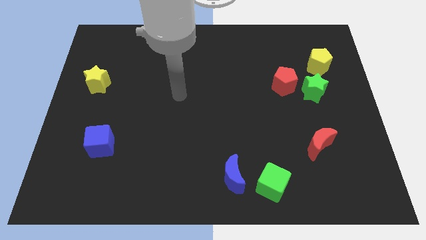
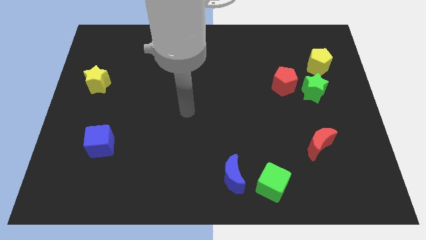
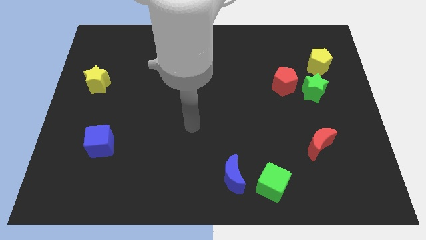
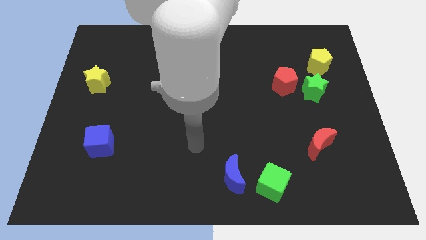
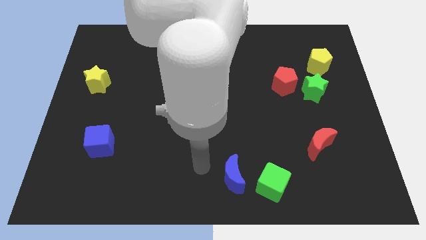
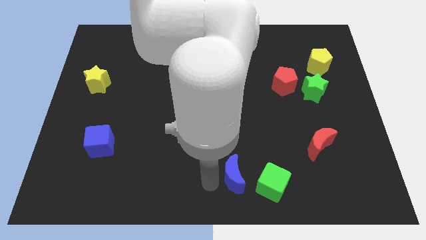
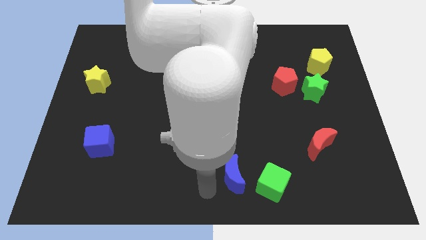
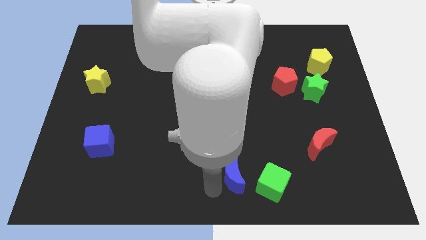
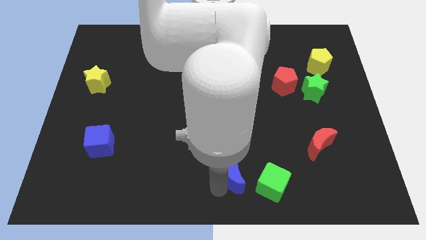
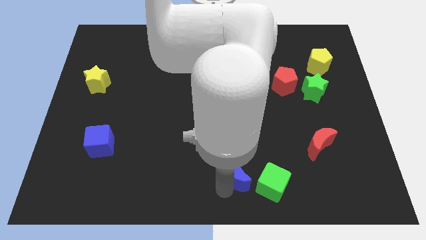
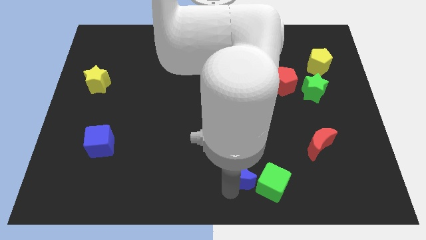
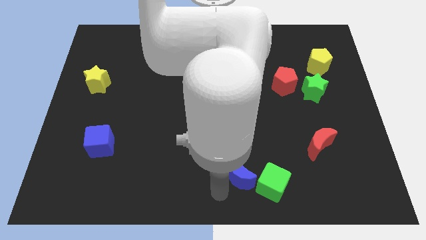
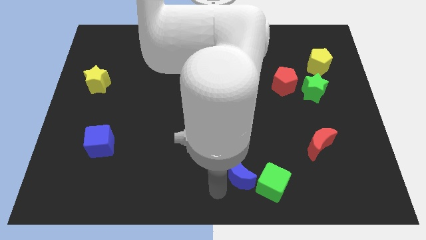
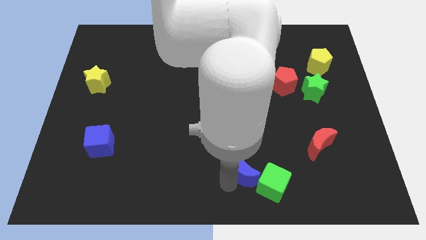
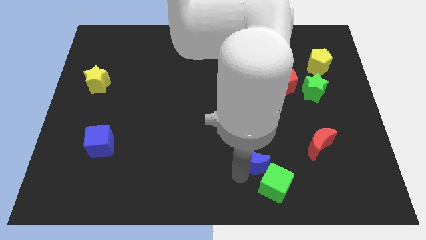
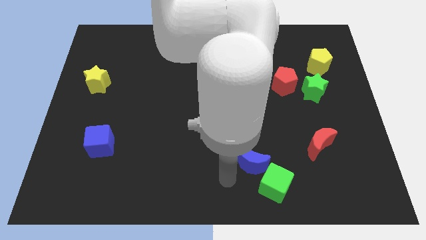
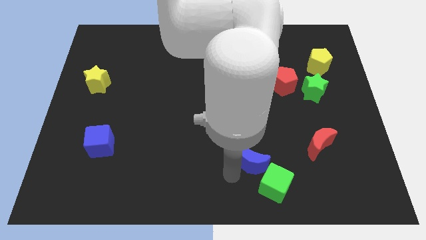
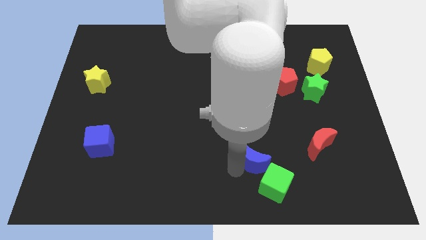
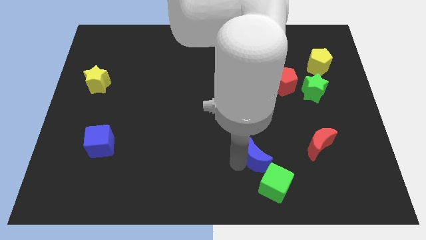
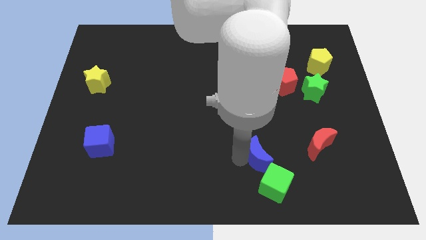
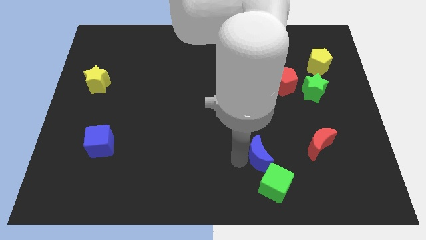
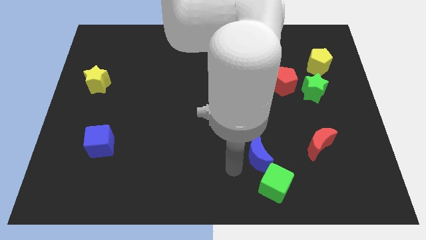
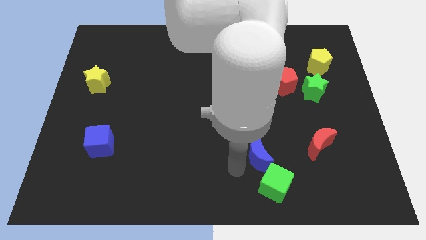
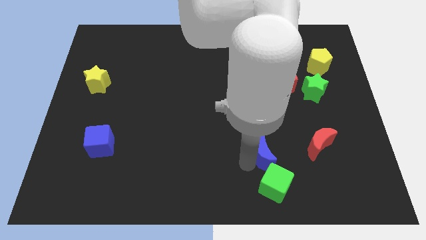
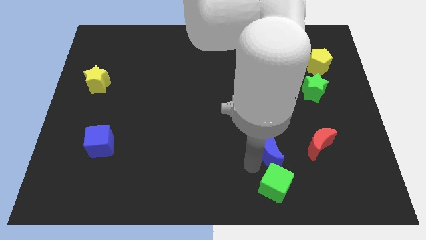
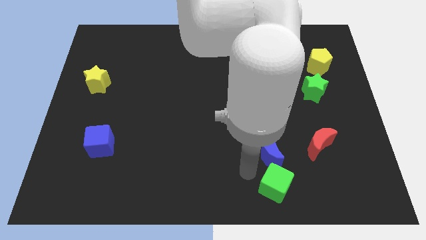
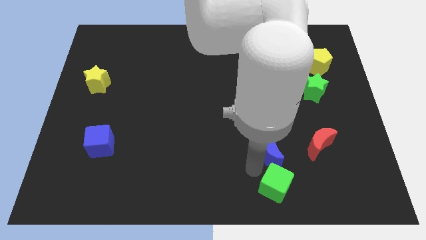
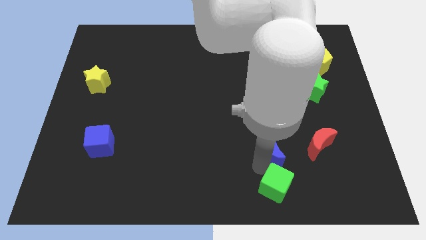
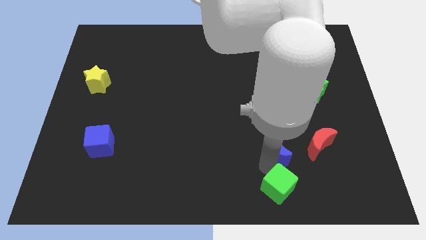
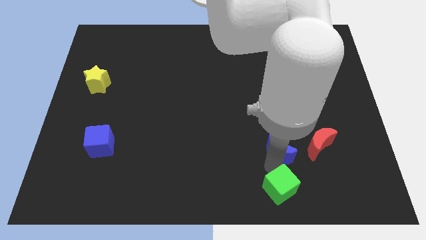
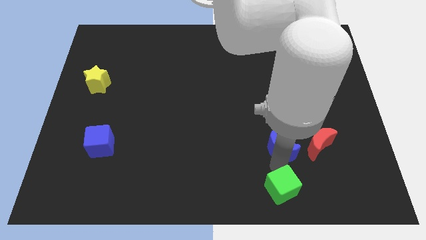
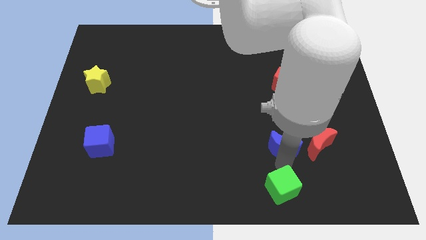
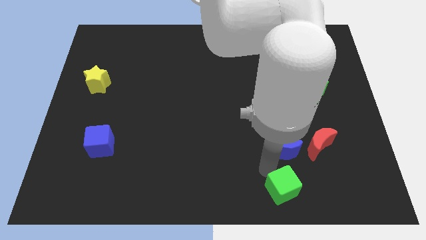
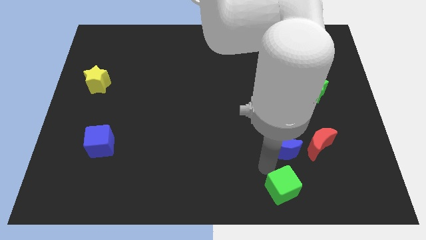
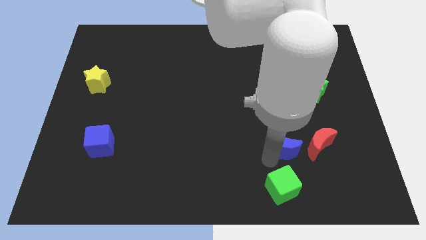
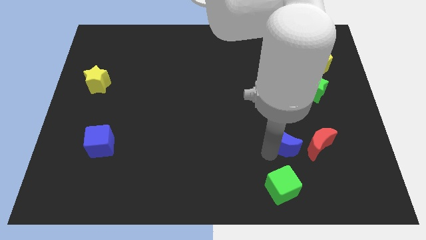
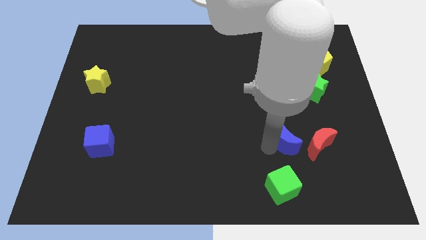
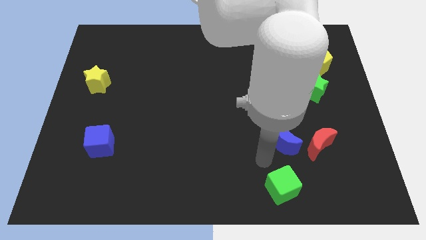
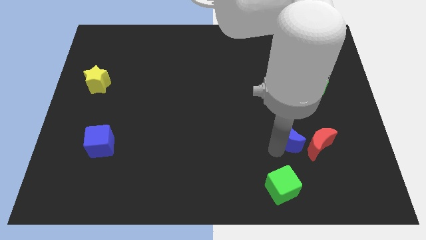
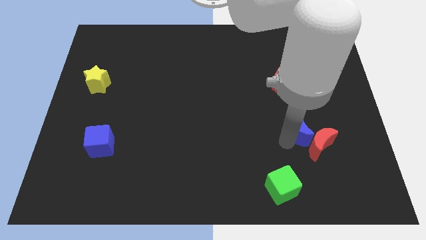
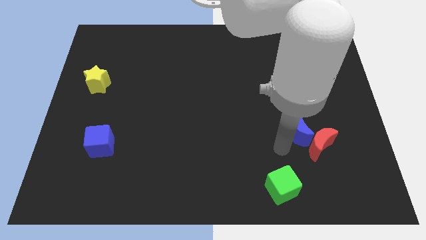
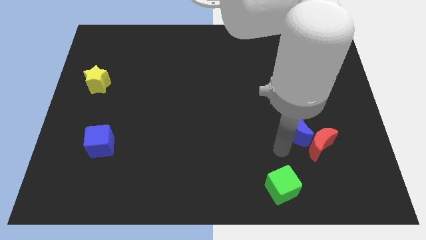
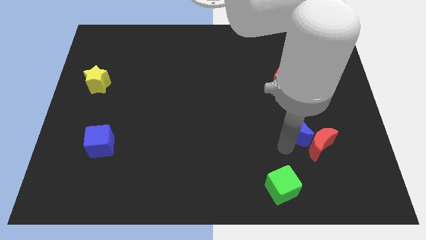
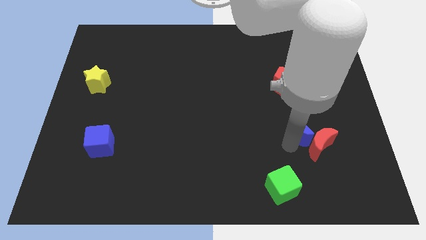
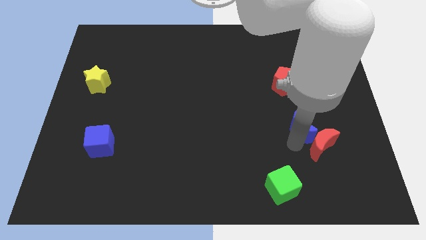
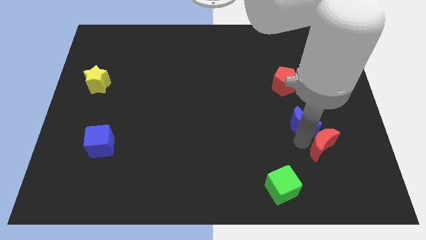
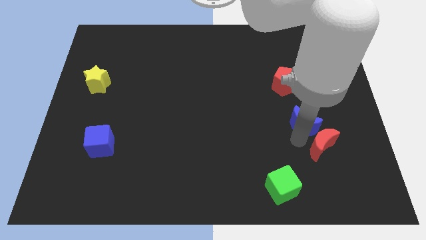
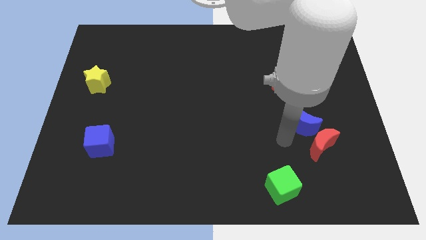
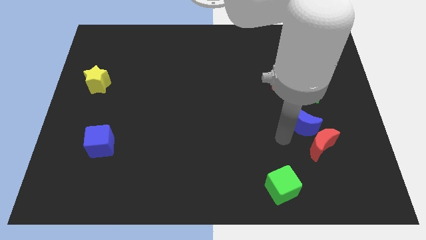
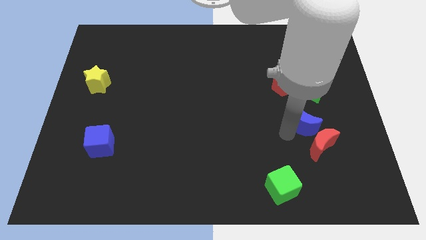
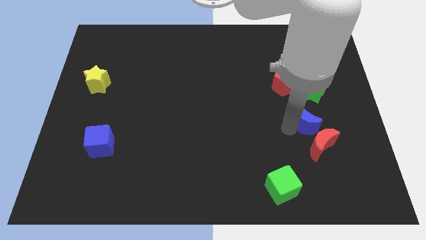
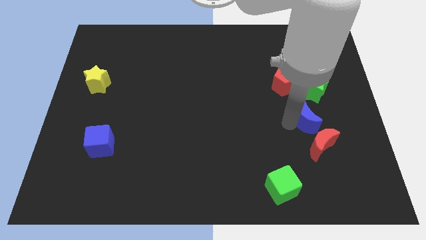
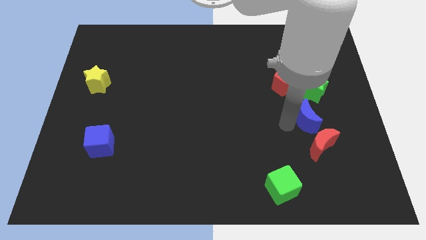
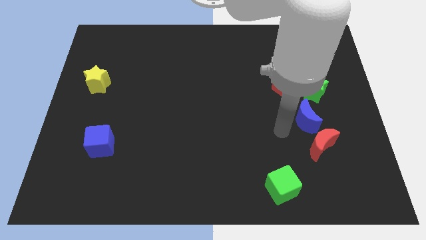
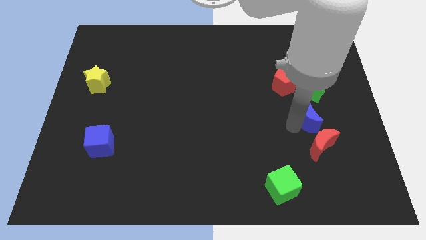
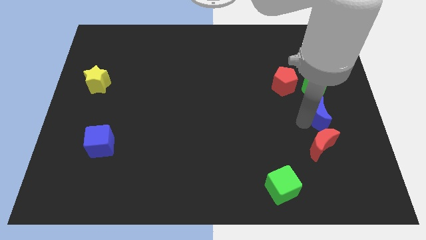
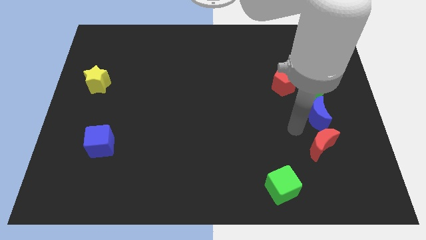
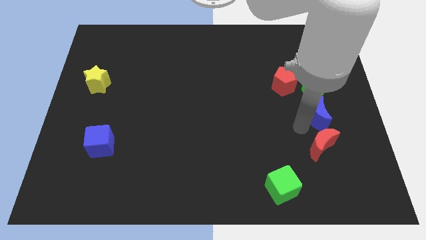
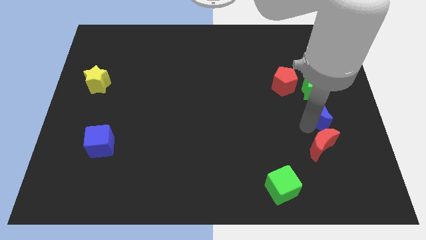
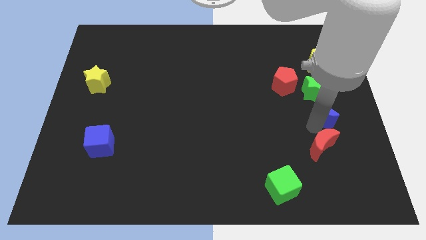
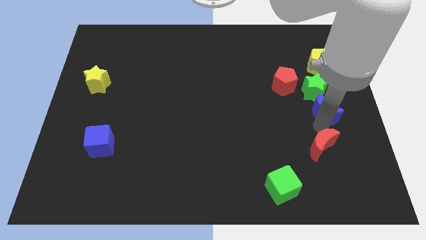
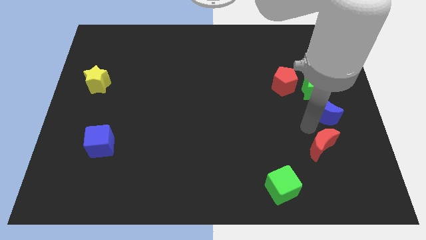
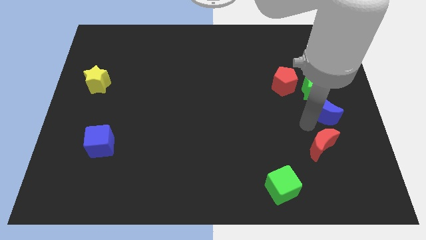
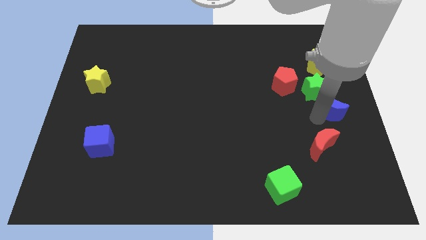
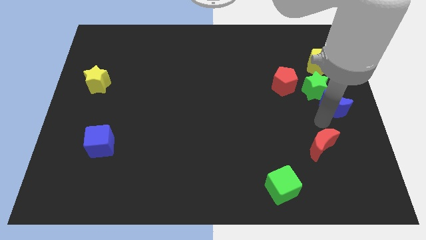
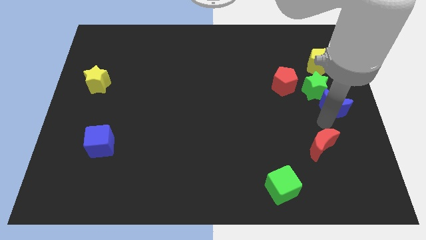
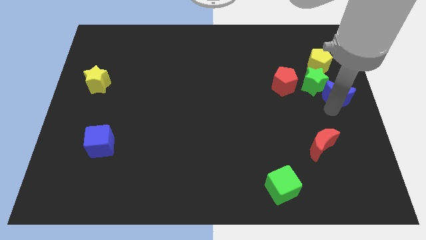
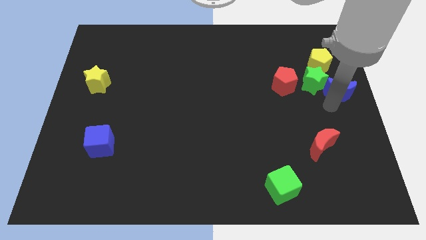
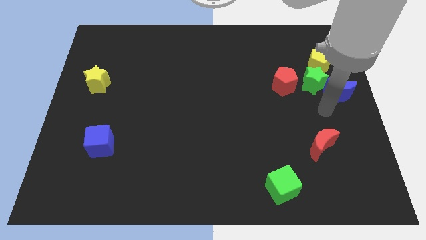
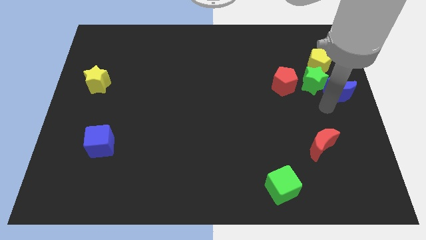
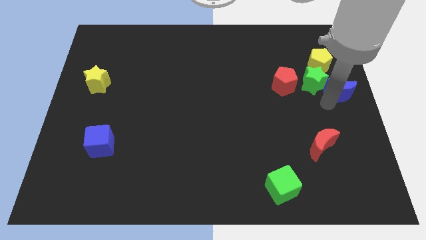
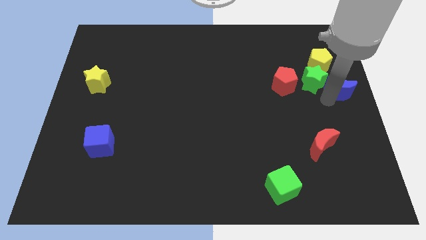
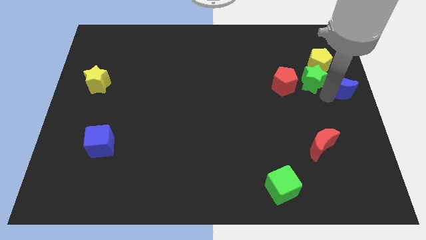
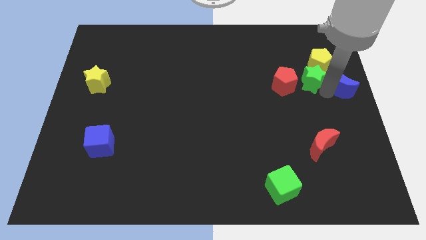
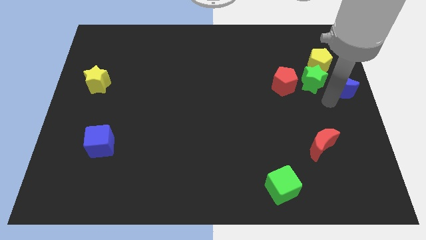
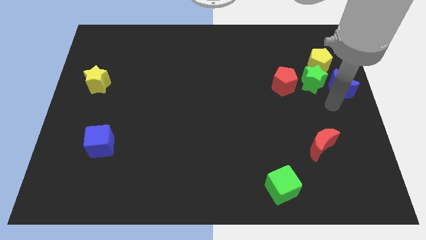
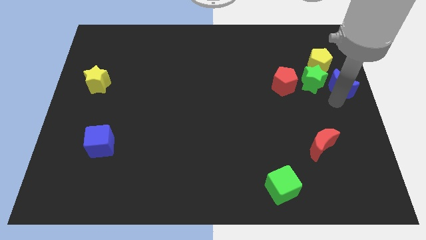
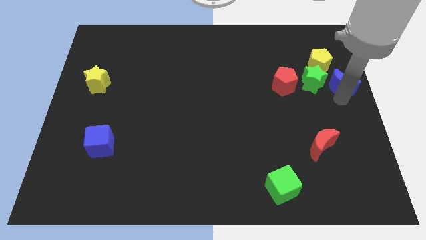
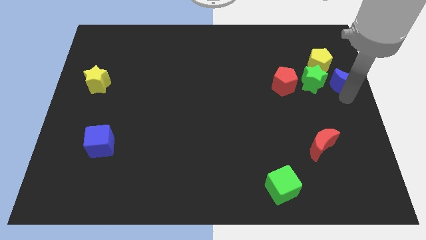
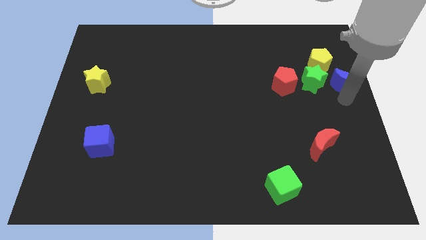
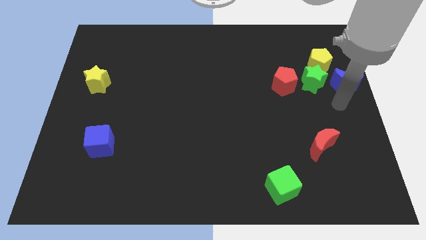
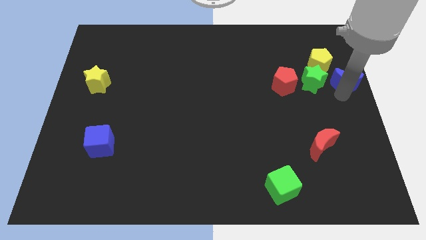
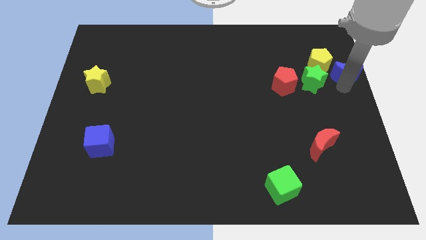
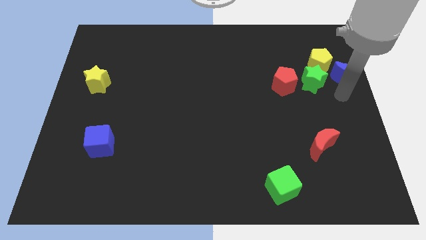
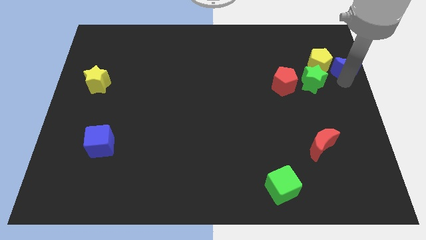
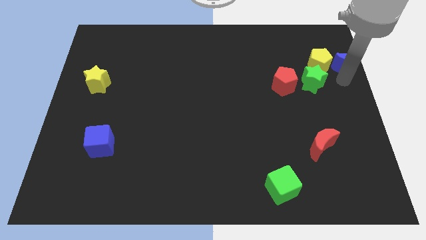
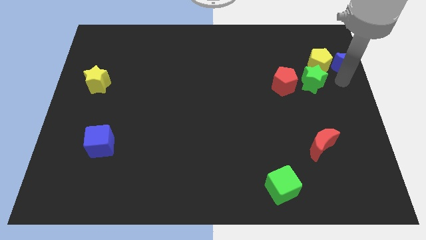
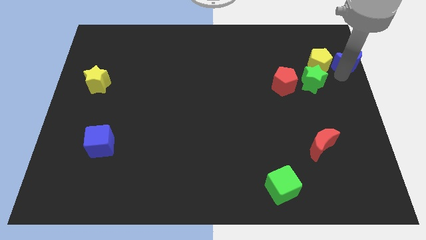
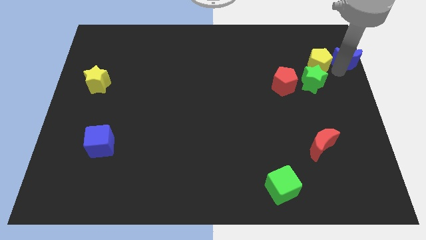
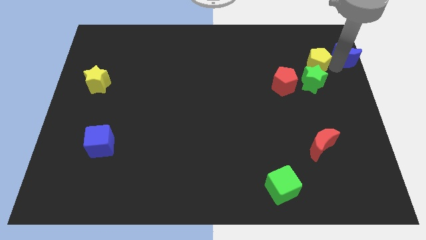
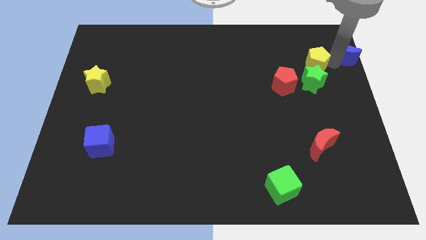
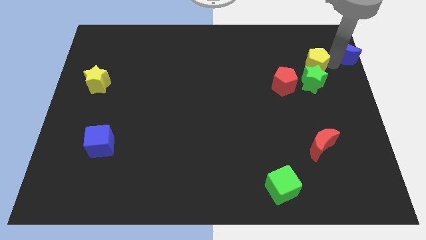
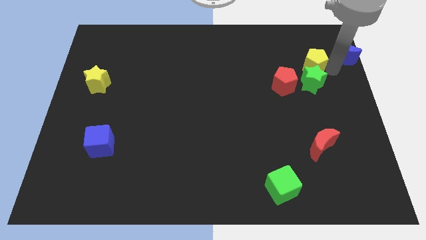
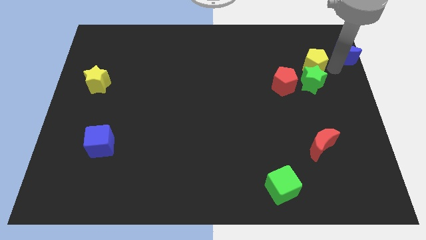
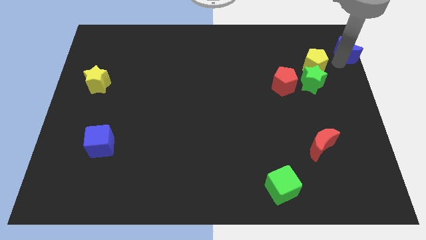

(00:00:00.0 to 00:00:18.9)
move the blue moon to the top right
